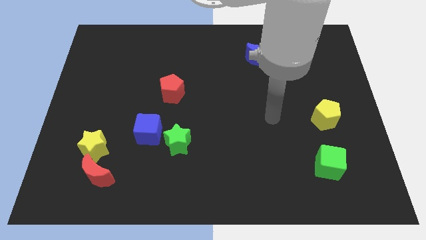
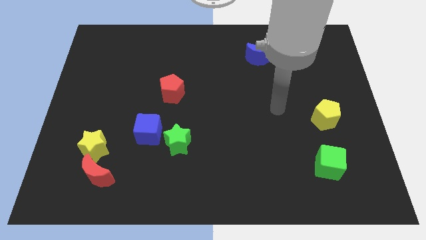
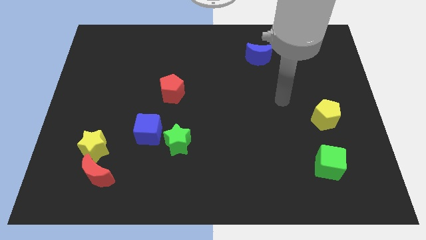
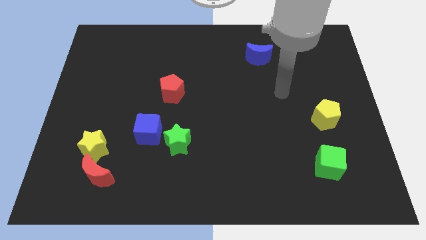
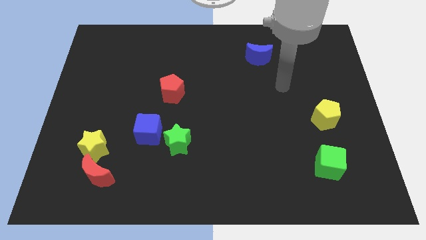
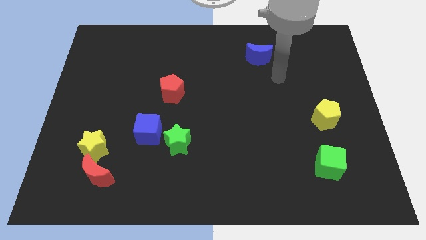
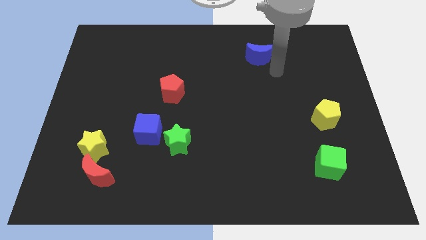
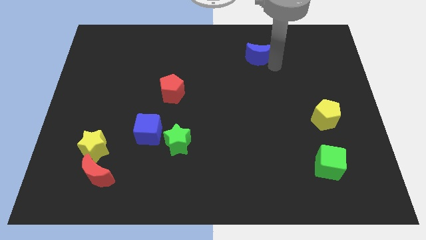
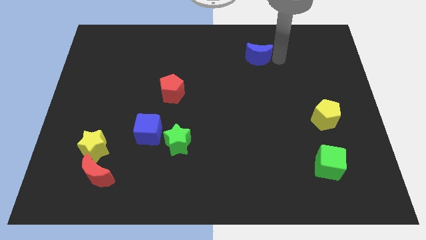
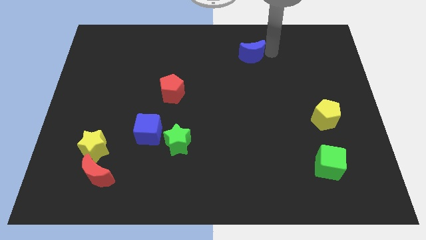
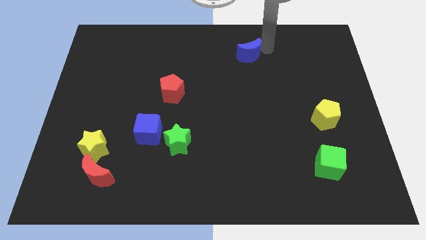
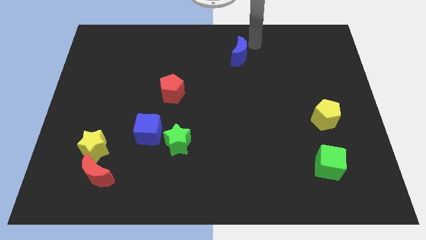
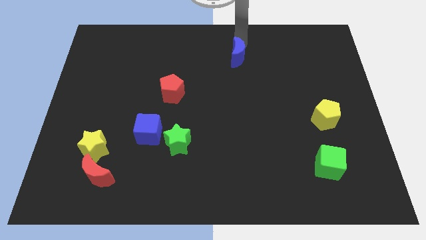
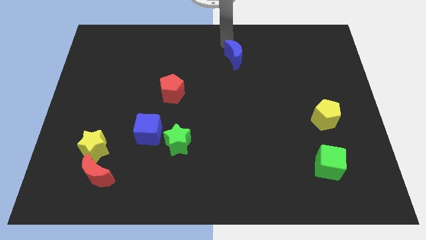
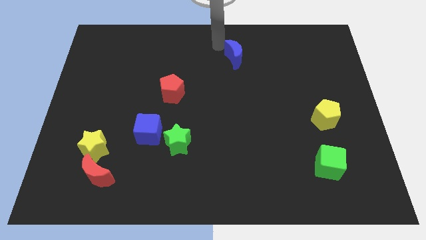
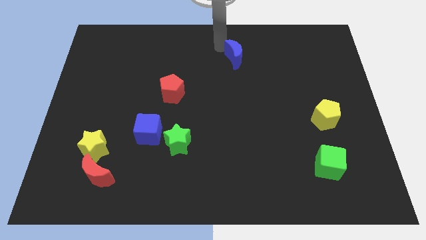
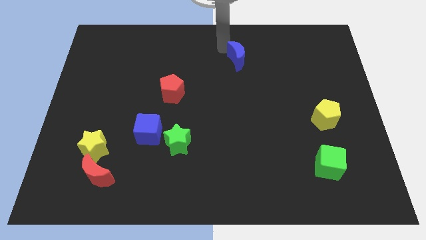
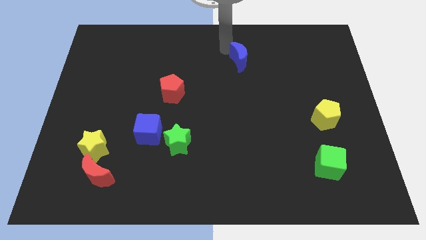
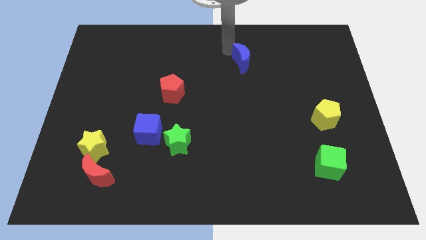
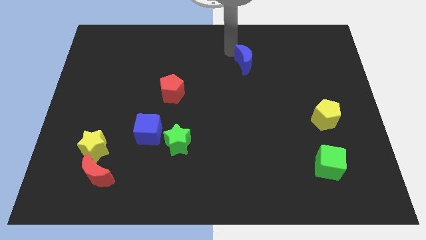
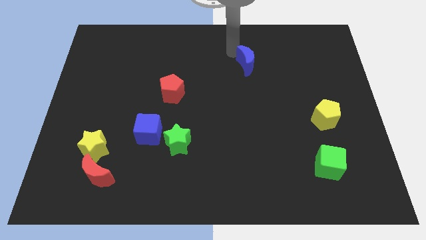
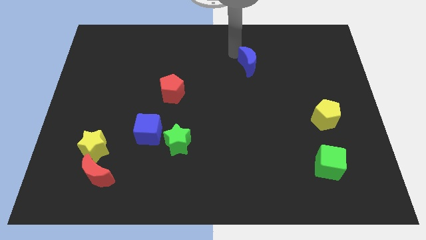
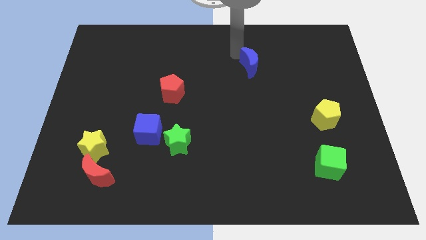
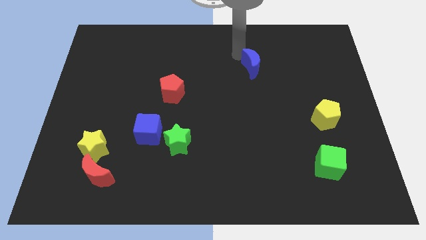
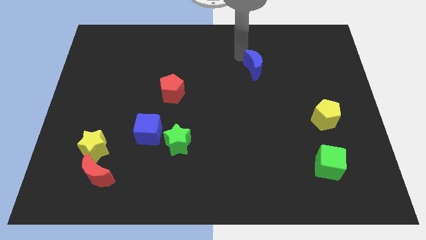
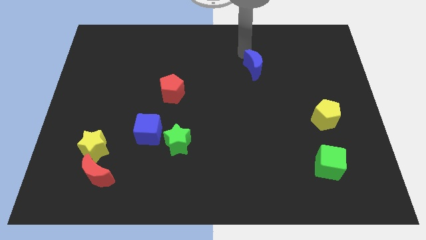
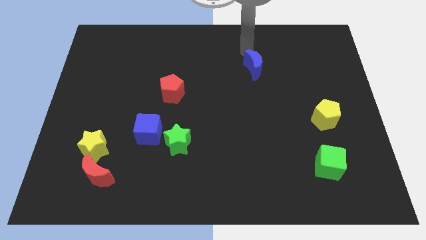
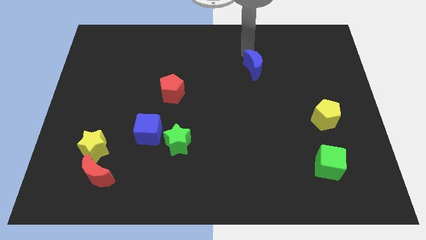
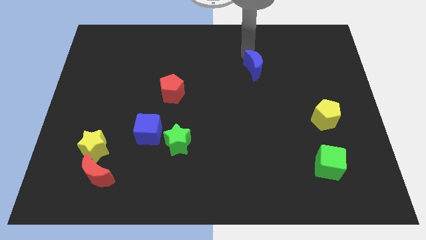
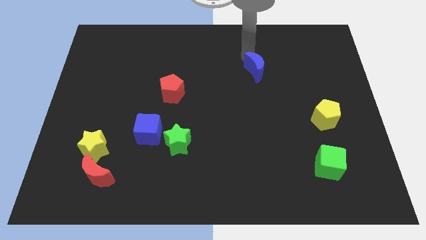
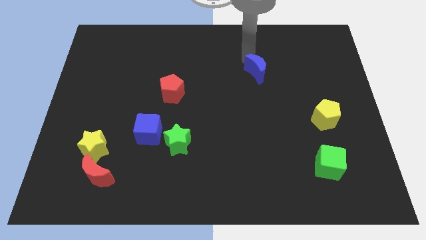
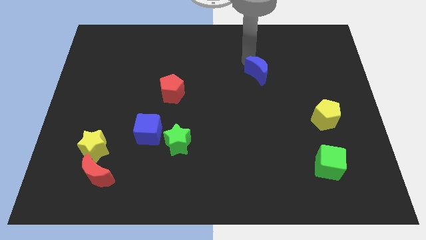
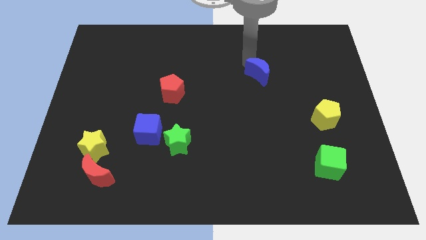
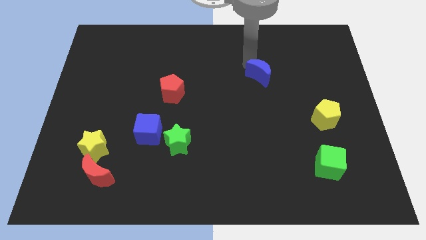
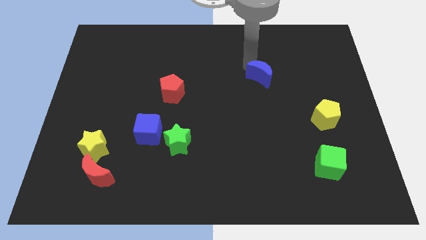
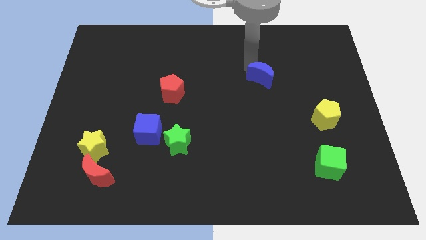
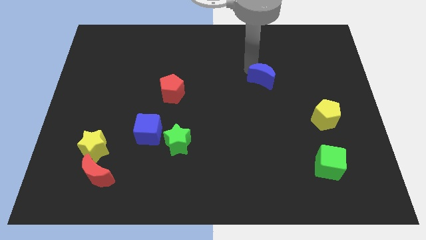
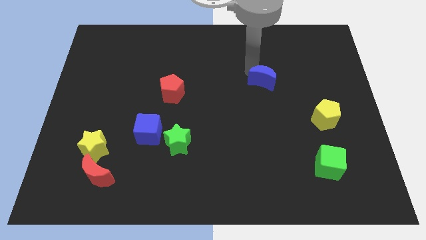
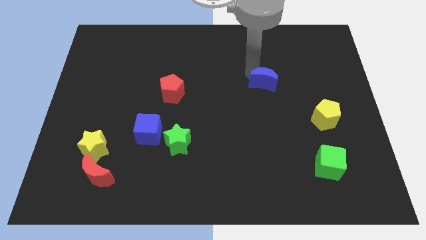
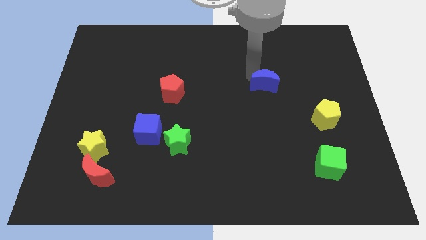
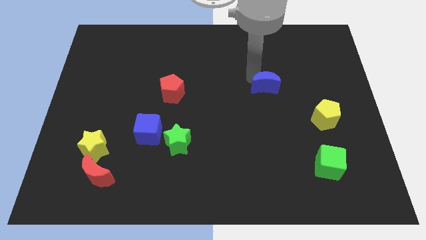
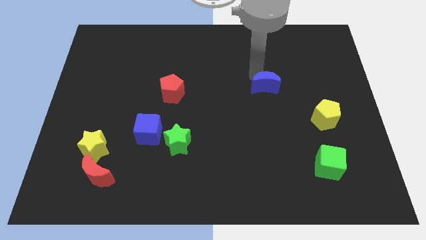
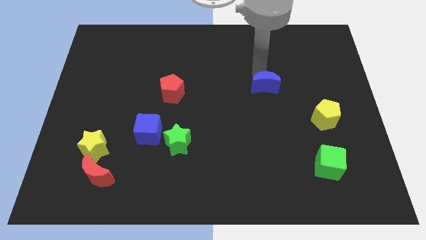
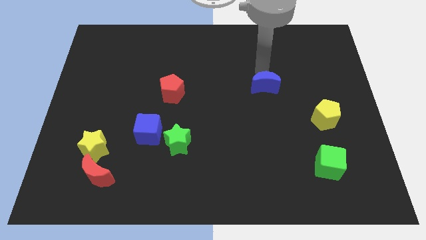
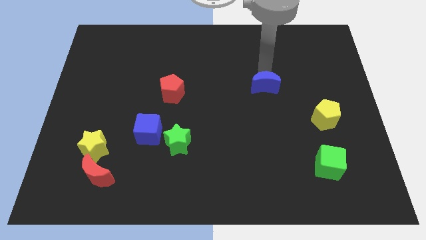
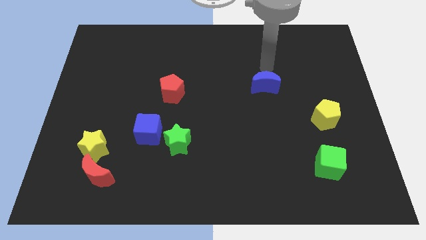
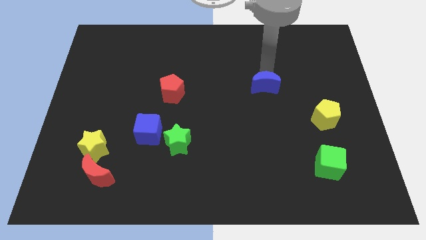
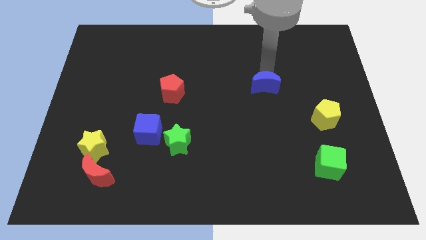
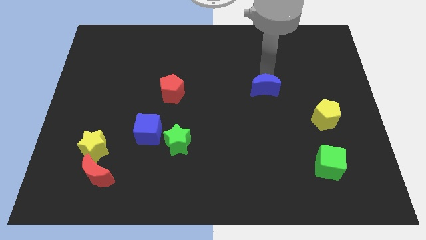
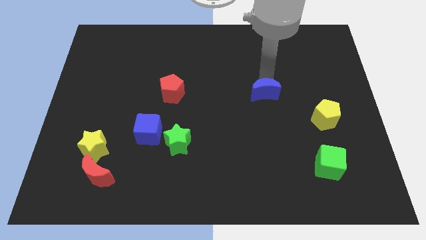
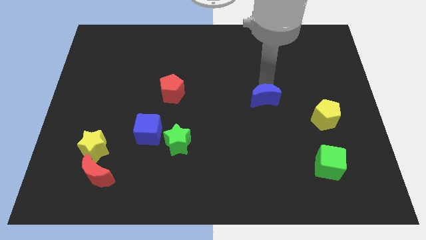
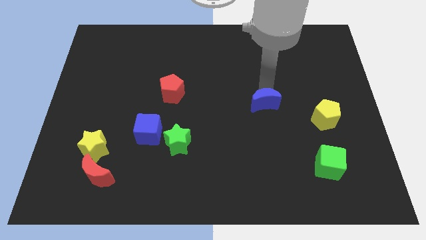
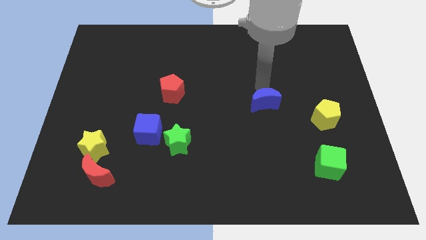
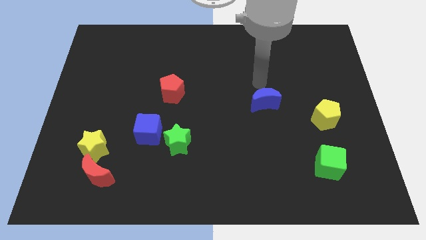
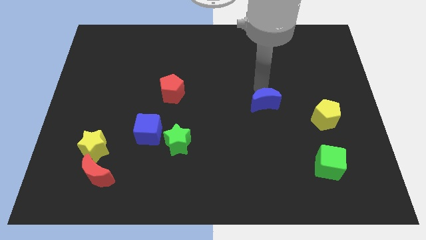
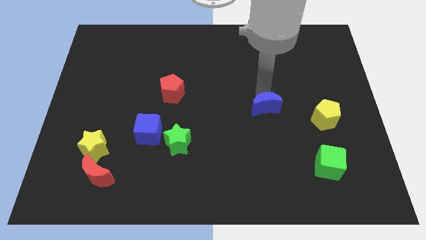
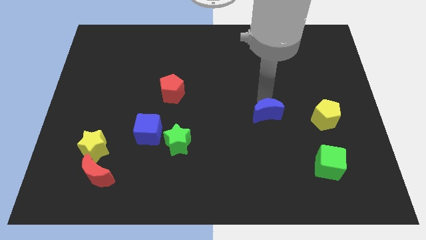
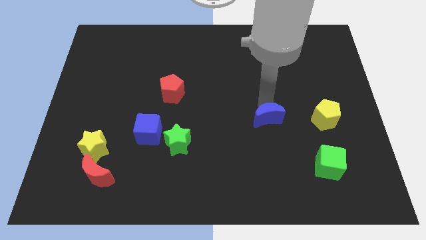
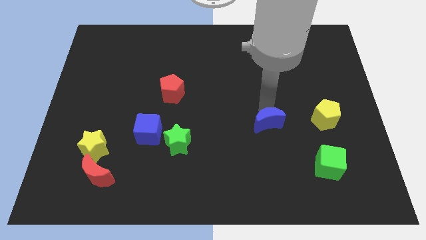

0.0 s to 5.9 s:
slide the blue moon downwards

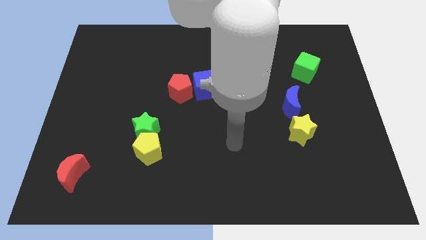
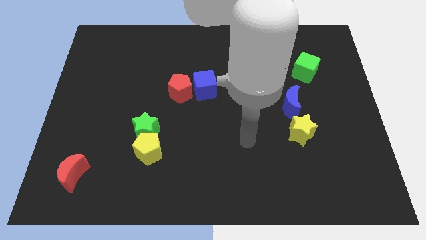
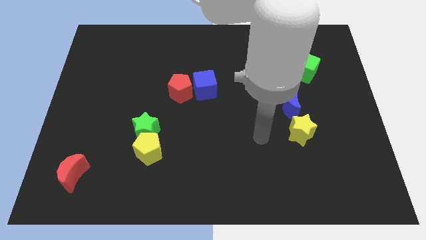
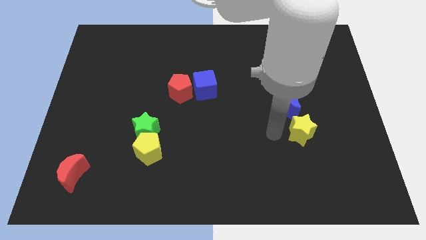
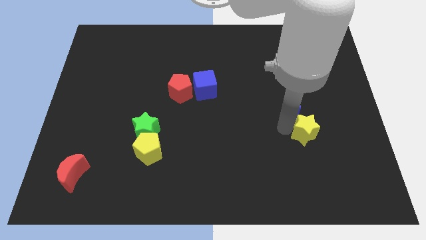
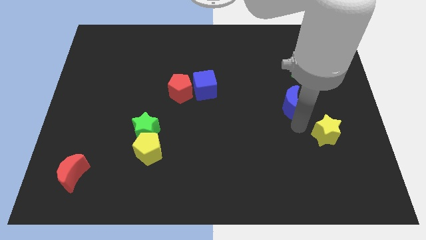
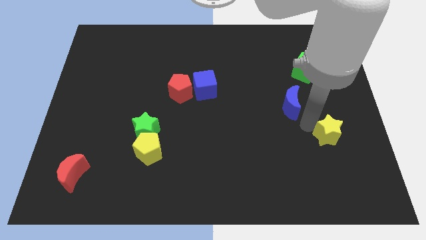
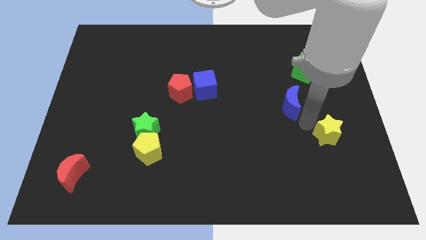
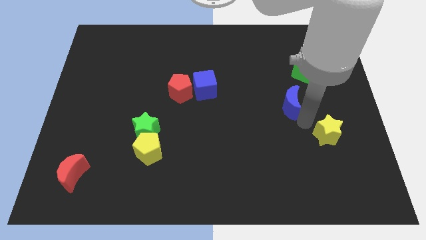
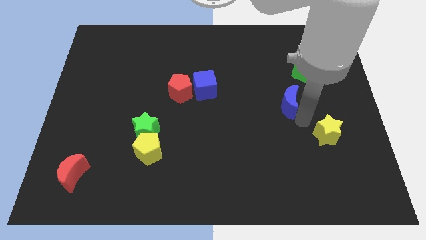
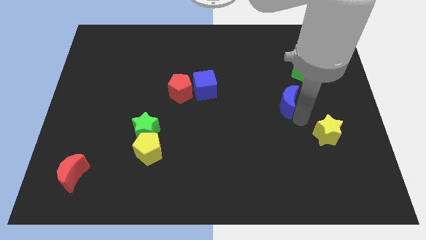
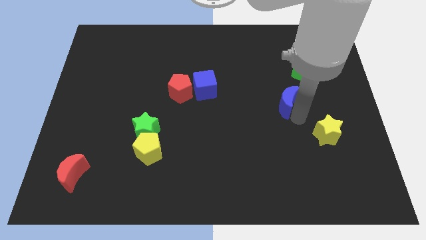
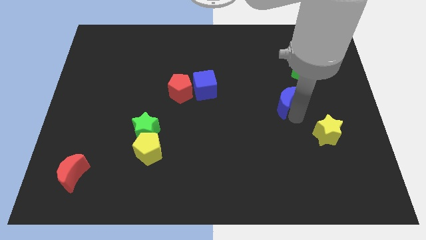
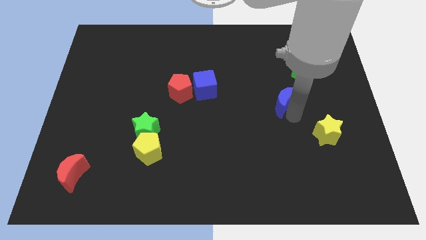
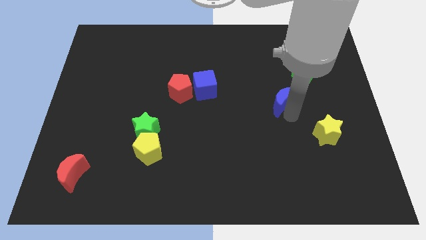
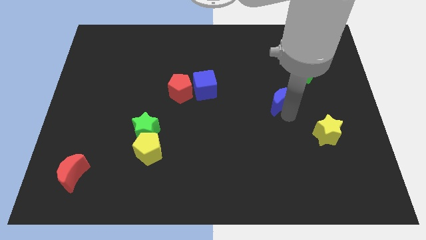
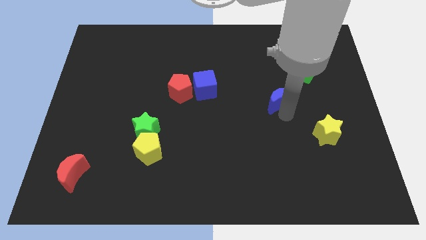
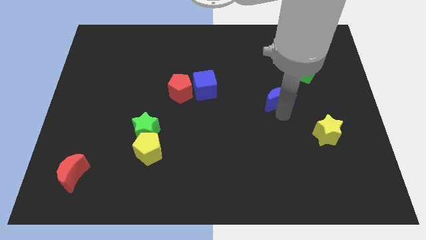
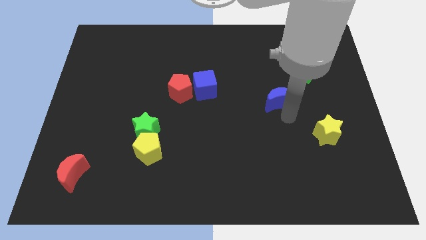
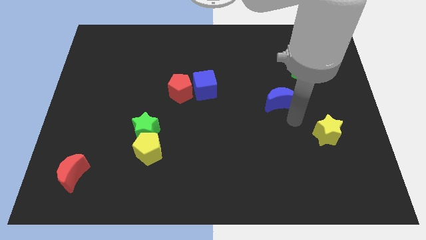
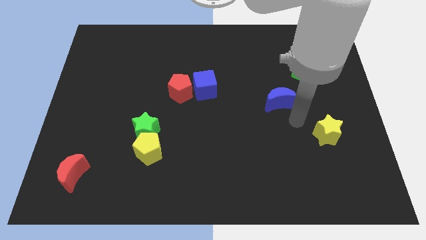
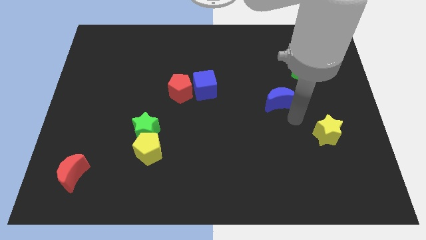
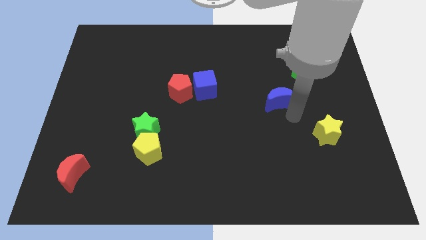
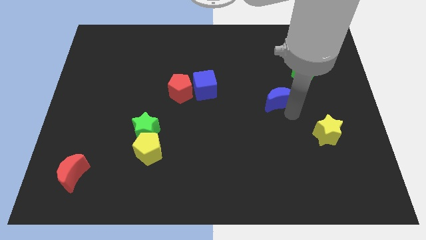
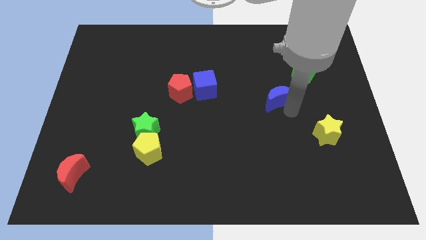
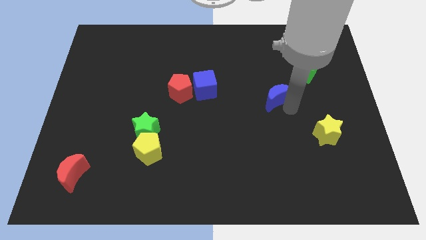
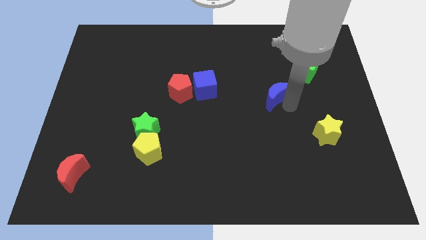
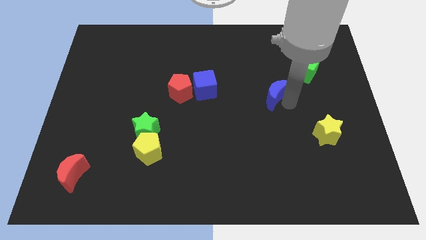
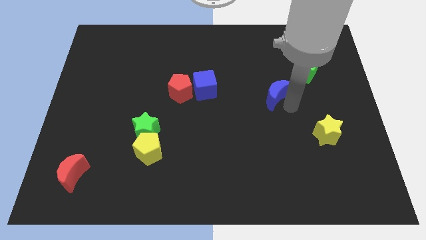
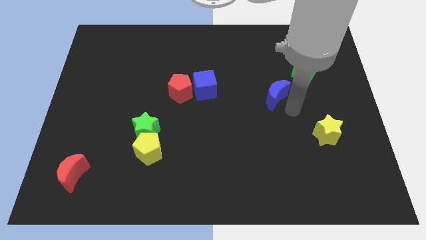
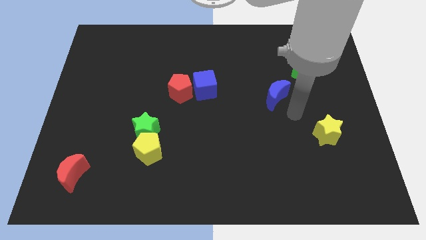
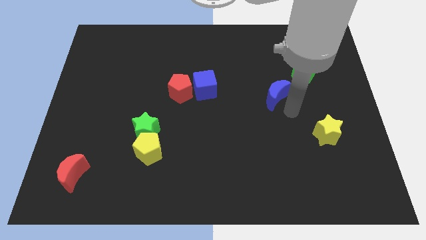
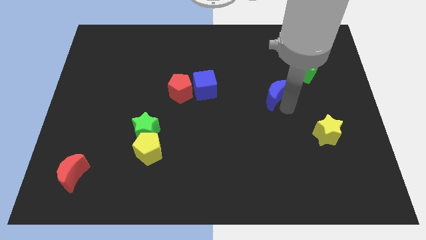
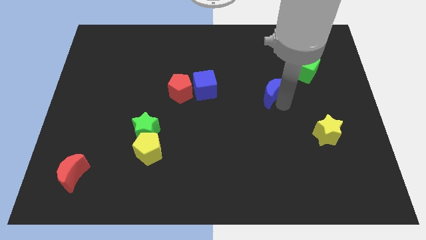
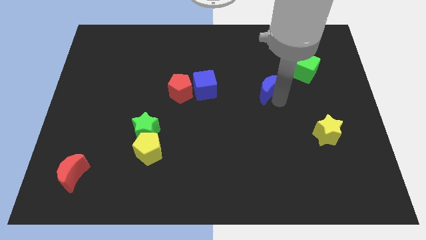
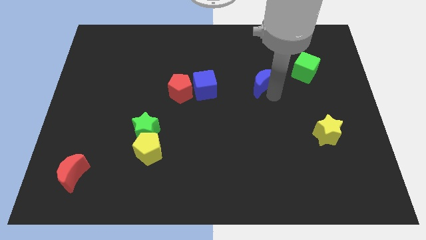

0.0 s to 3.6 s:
slide the blue moon diagonally upwards and to the left a little bit
